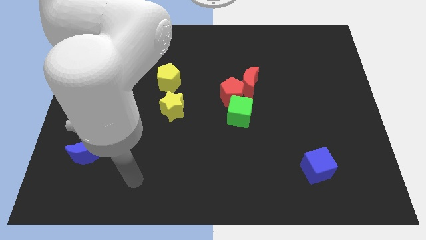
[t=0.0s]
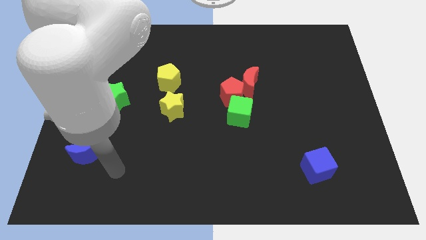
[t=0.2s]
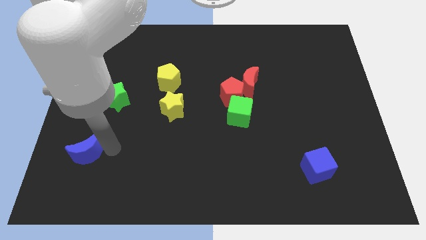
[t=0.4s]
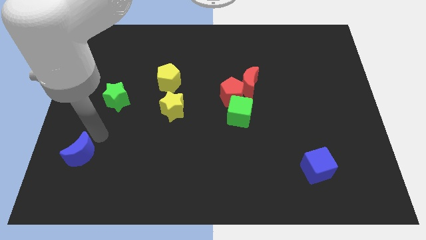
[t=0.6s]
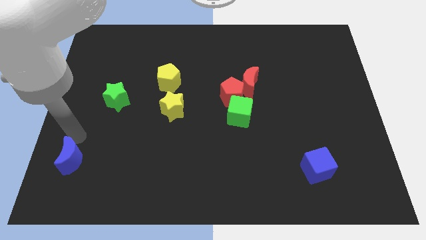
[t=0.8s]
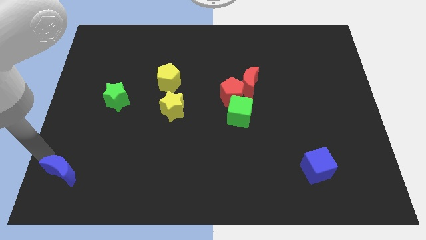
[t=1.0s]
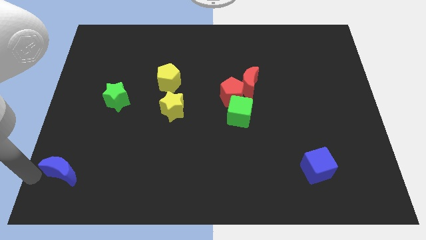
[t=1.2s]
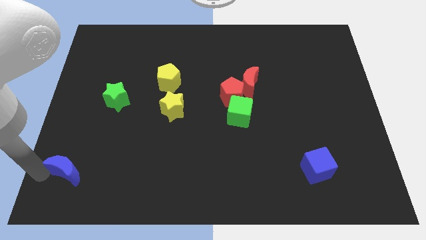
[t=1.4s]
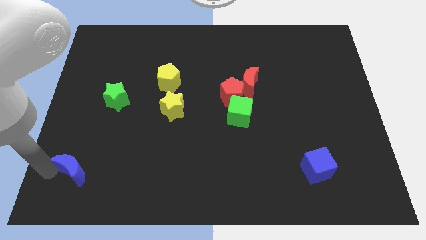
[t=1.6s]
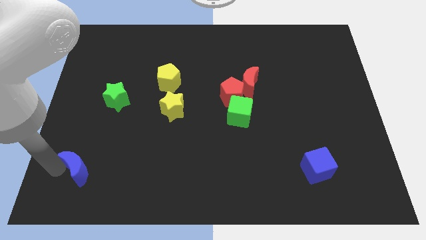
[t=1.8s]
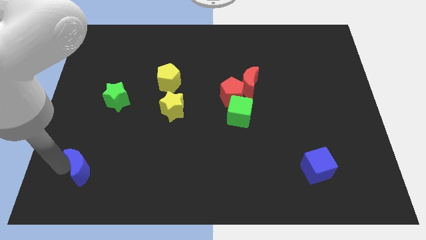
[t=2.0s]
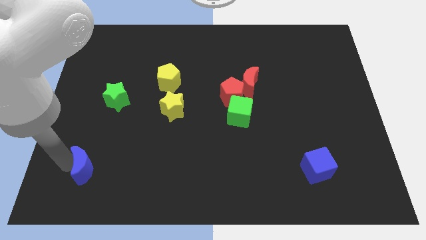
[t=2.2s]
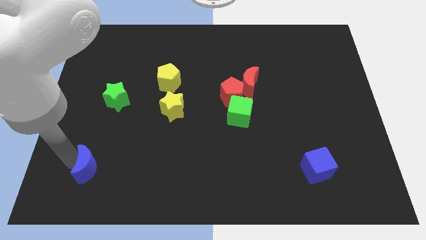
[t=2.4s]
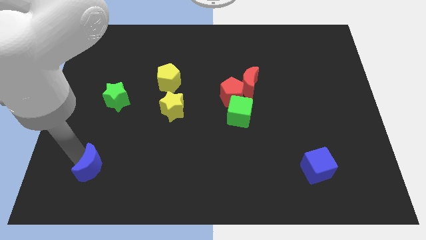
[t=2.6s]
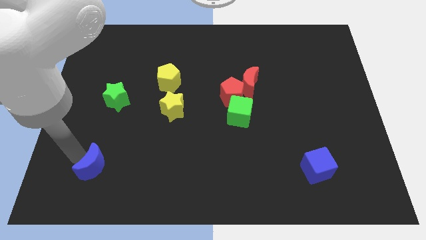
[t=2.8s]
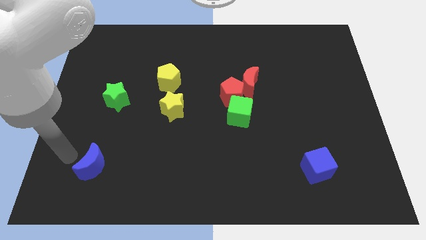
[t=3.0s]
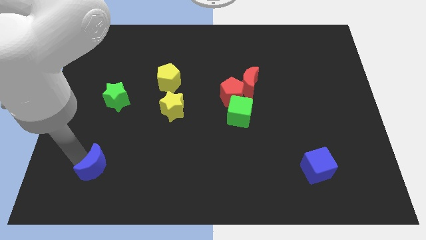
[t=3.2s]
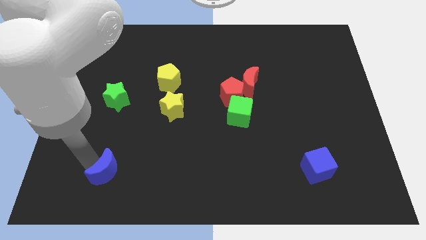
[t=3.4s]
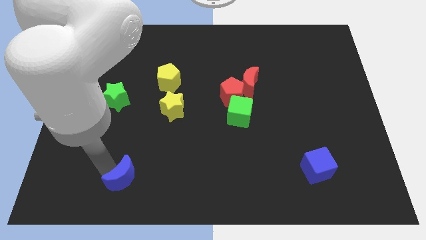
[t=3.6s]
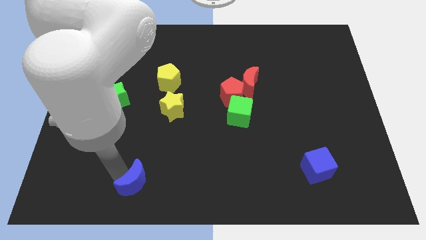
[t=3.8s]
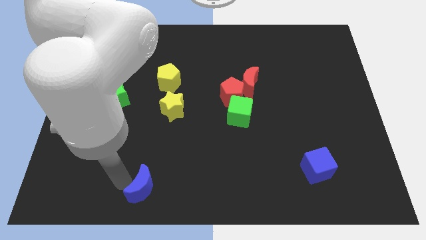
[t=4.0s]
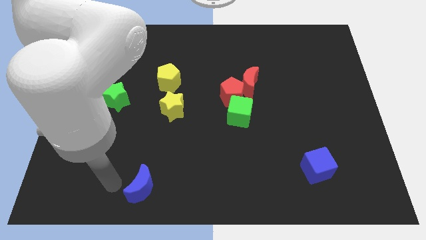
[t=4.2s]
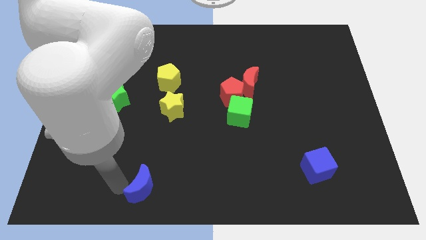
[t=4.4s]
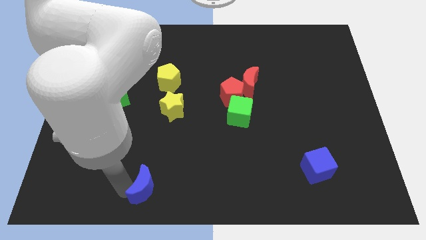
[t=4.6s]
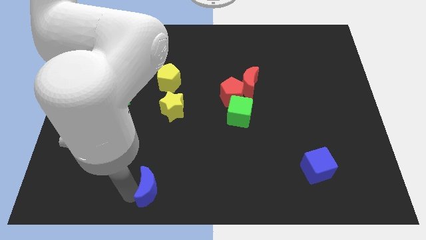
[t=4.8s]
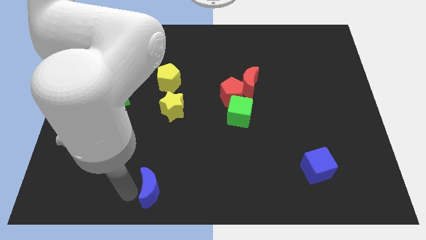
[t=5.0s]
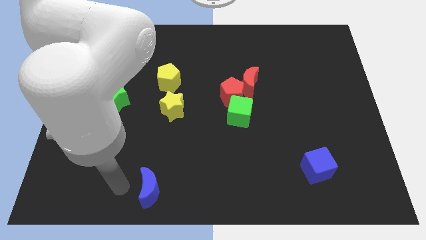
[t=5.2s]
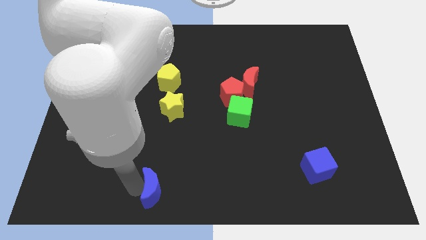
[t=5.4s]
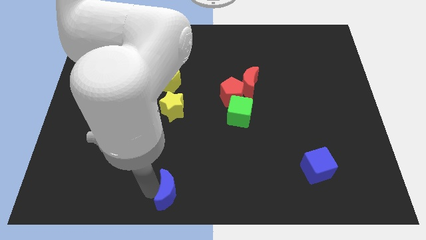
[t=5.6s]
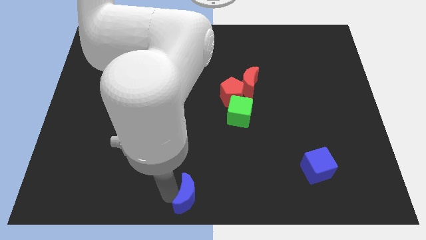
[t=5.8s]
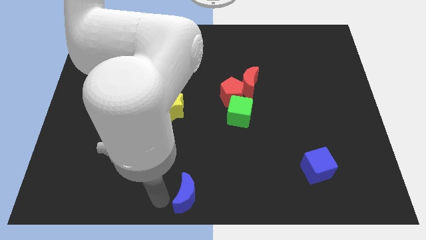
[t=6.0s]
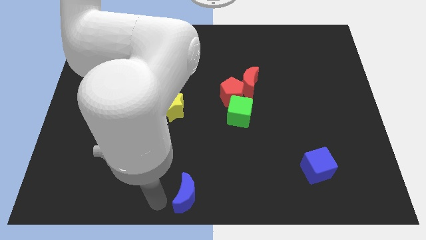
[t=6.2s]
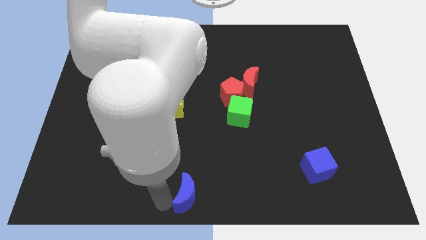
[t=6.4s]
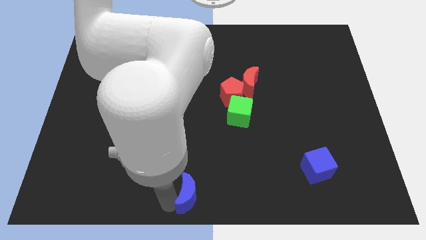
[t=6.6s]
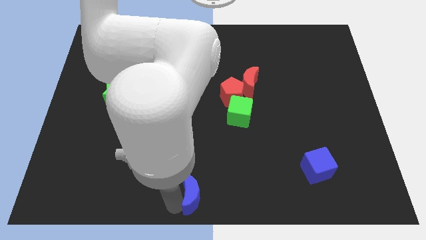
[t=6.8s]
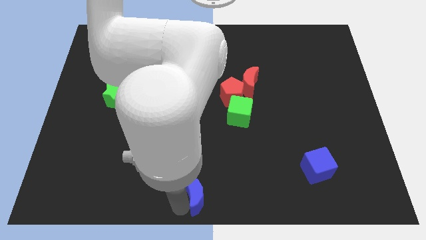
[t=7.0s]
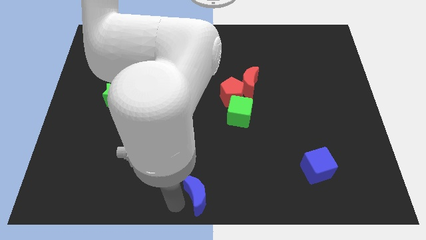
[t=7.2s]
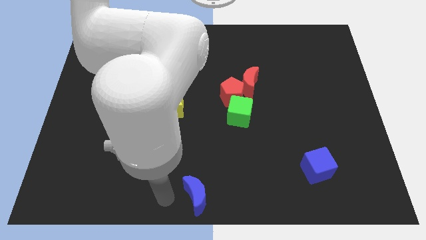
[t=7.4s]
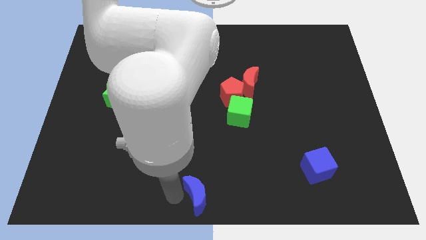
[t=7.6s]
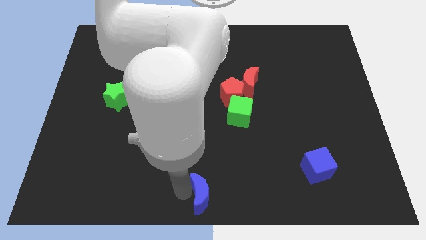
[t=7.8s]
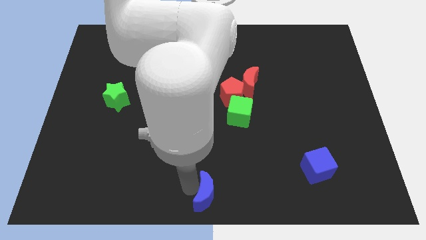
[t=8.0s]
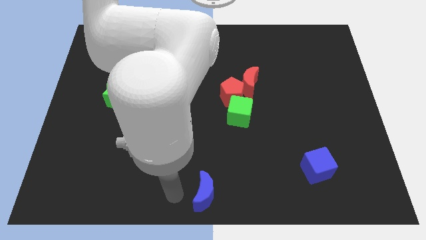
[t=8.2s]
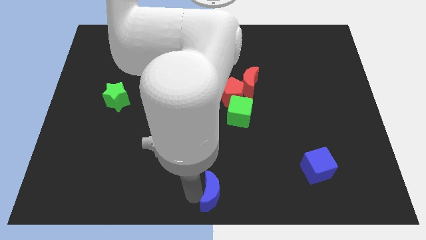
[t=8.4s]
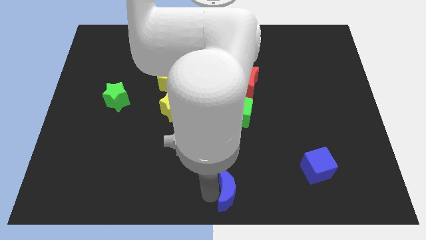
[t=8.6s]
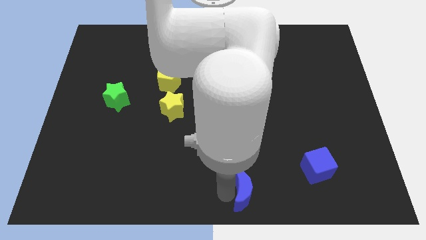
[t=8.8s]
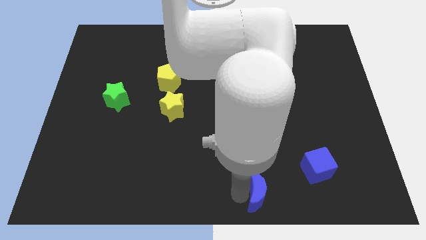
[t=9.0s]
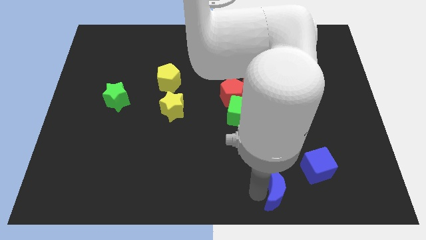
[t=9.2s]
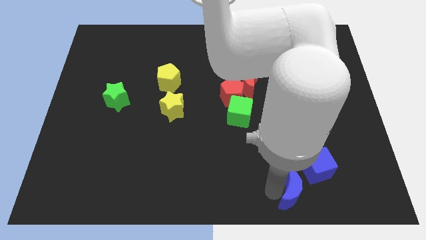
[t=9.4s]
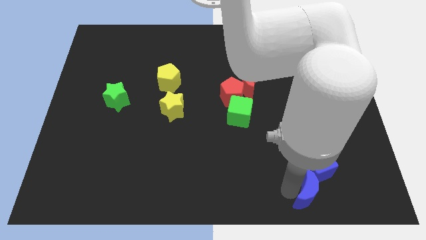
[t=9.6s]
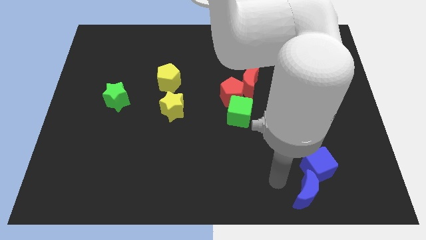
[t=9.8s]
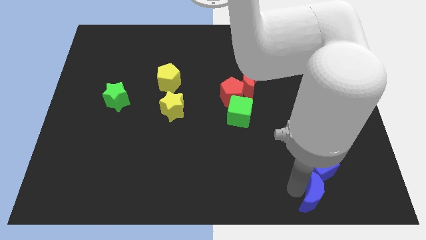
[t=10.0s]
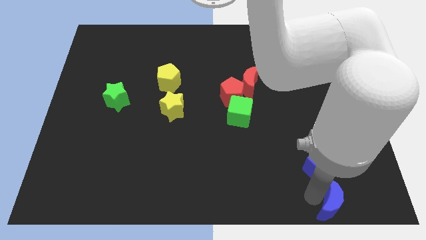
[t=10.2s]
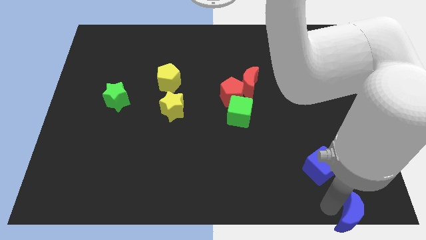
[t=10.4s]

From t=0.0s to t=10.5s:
move the blue moon to the bottom right corner

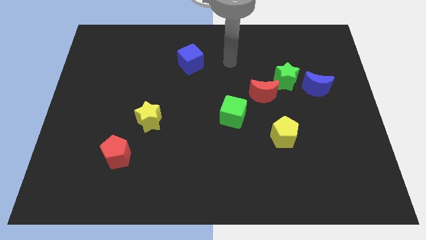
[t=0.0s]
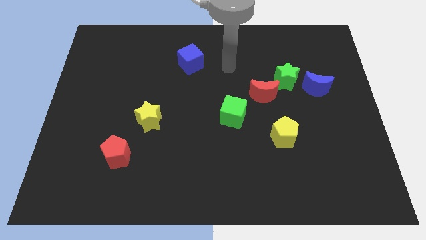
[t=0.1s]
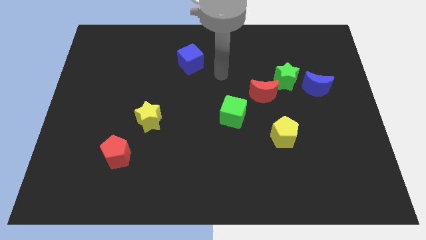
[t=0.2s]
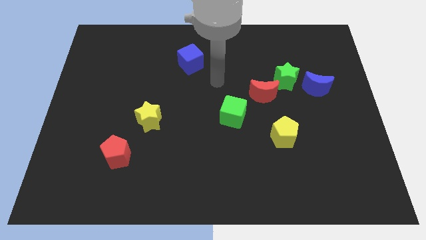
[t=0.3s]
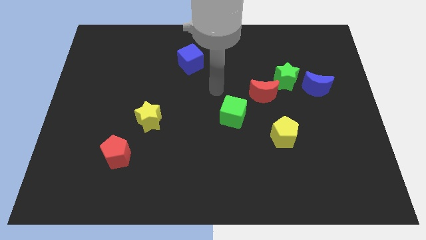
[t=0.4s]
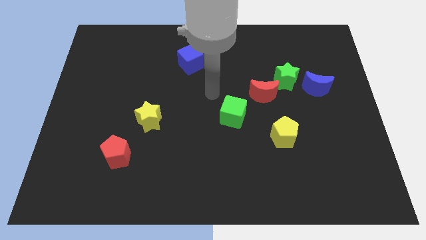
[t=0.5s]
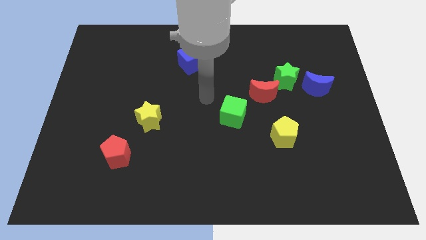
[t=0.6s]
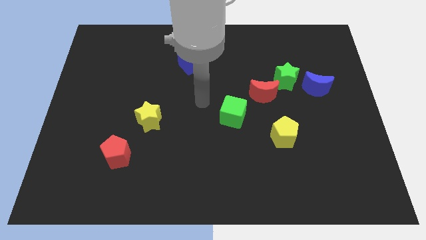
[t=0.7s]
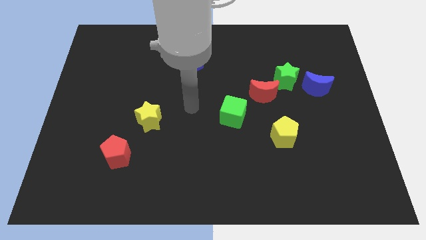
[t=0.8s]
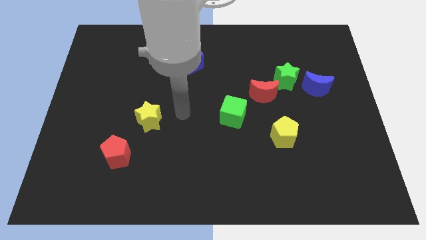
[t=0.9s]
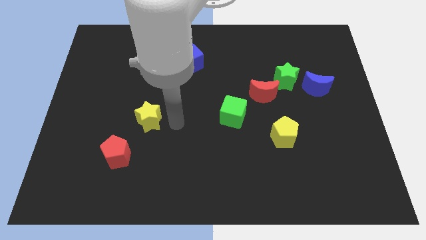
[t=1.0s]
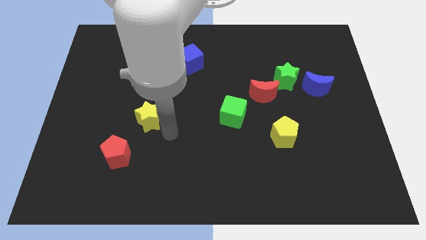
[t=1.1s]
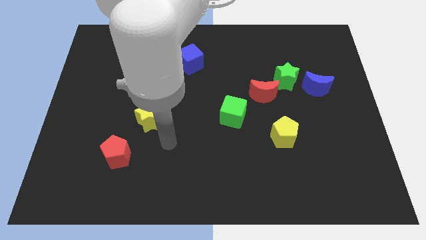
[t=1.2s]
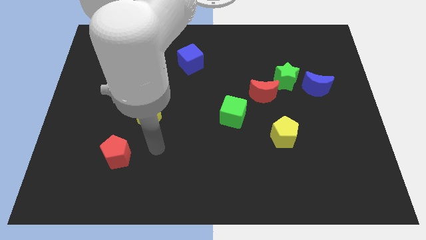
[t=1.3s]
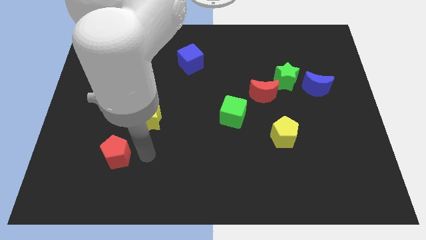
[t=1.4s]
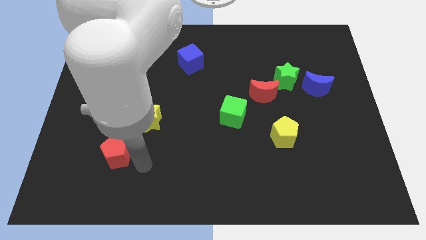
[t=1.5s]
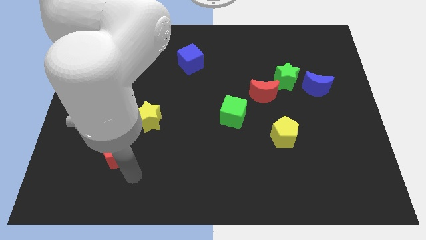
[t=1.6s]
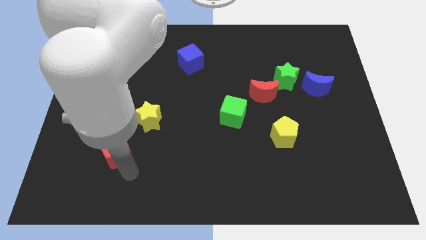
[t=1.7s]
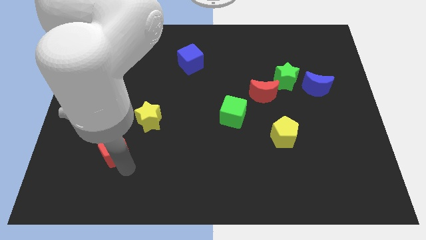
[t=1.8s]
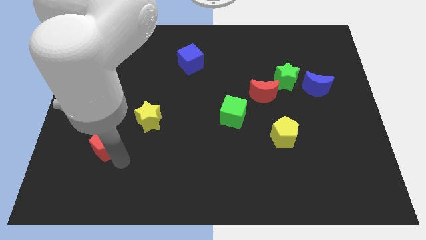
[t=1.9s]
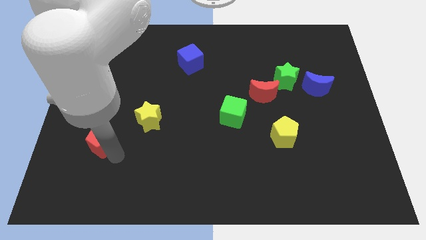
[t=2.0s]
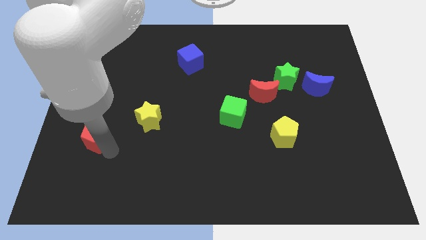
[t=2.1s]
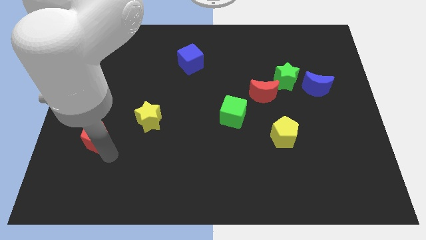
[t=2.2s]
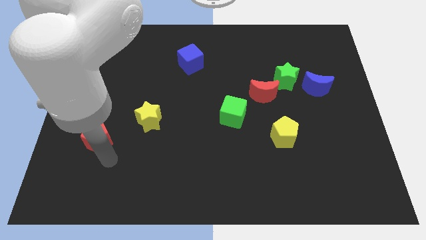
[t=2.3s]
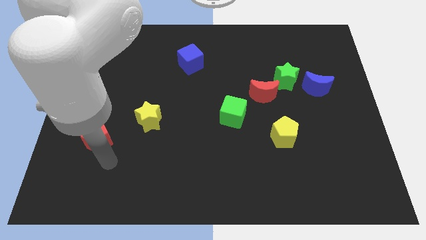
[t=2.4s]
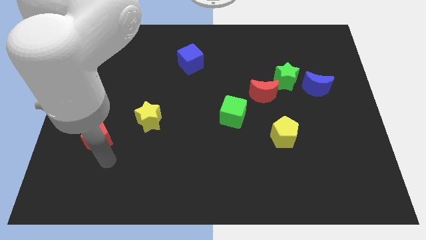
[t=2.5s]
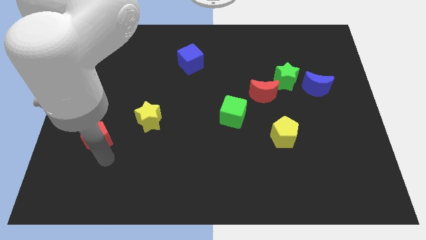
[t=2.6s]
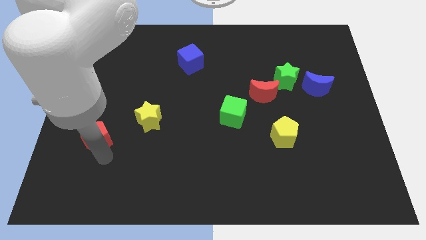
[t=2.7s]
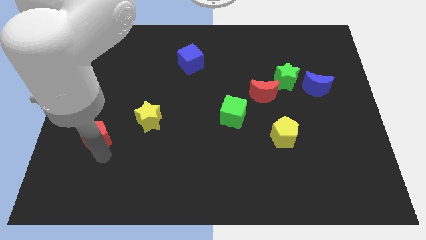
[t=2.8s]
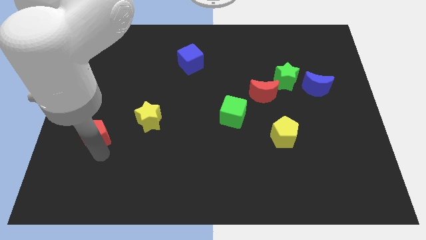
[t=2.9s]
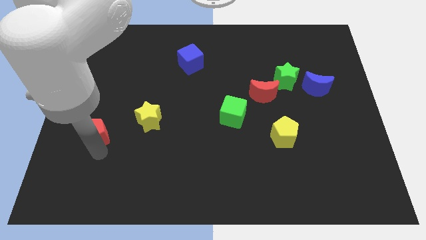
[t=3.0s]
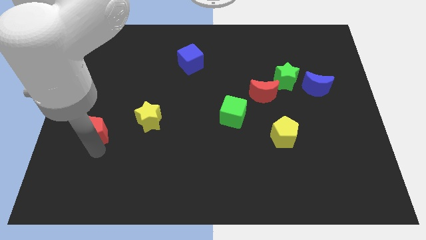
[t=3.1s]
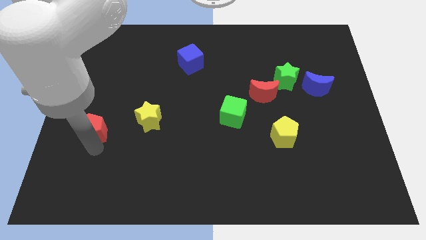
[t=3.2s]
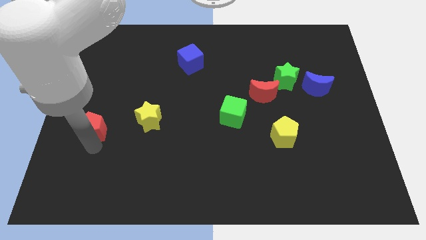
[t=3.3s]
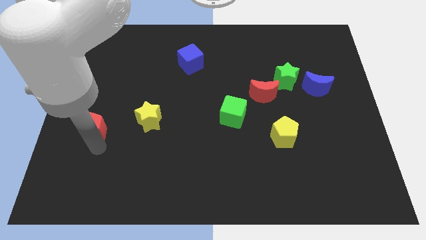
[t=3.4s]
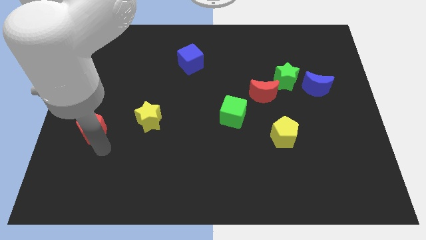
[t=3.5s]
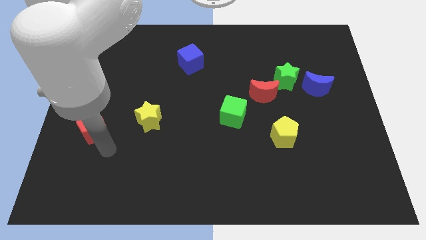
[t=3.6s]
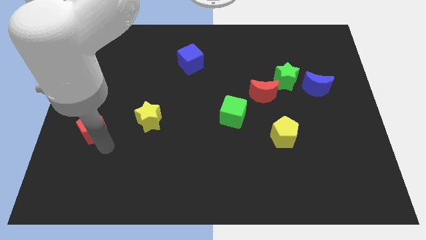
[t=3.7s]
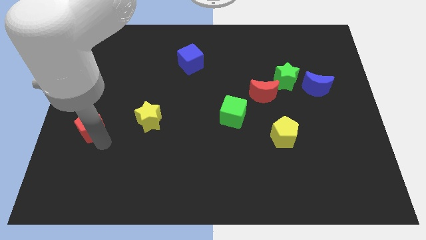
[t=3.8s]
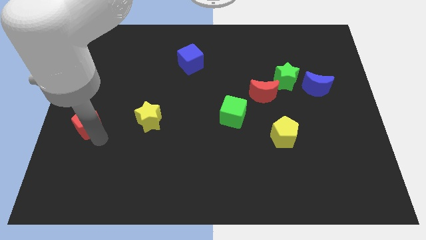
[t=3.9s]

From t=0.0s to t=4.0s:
slide the red pentagon to the left side of the board
